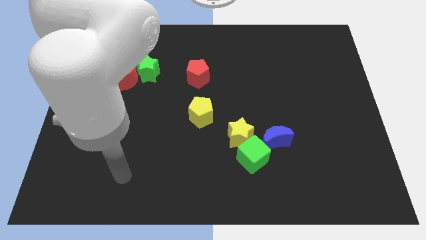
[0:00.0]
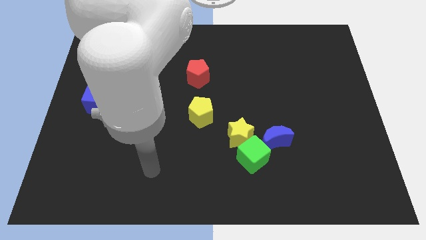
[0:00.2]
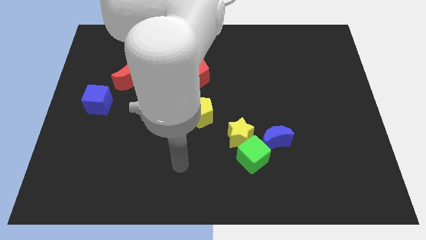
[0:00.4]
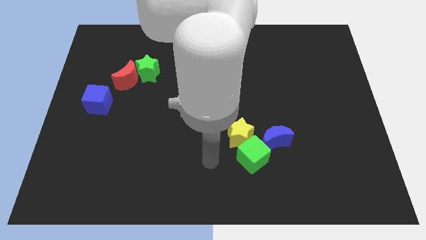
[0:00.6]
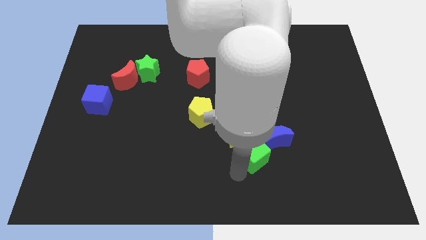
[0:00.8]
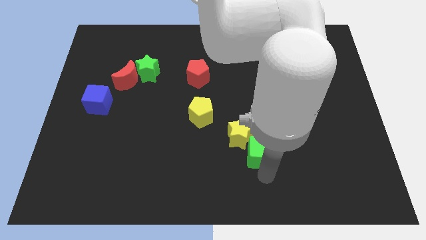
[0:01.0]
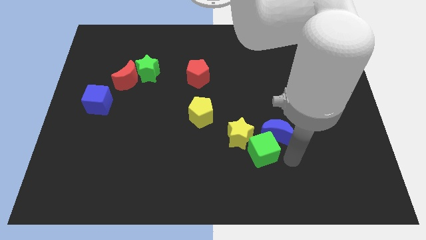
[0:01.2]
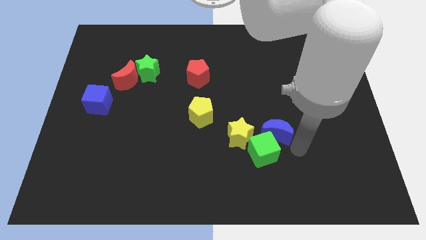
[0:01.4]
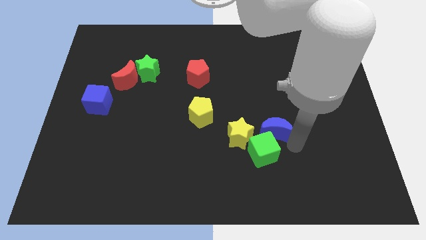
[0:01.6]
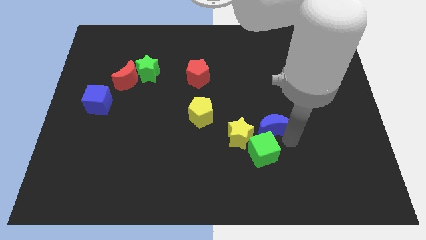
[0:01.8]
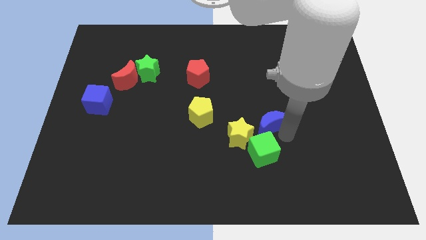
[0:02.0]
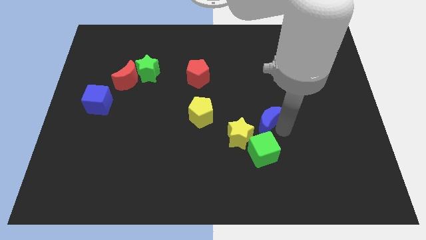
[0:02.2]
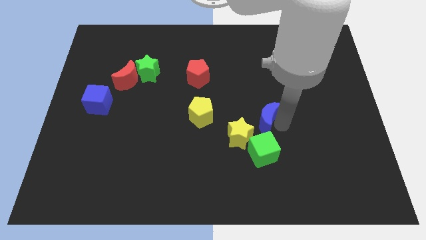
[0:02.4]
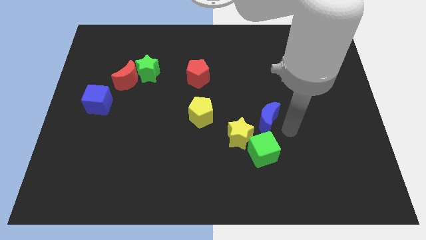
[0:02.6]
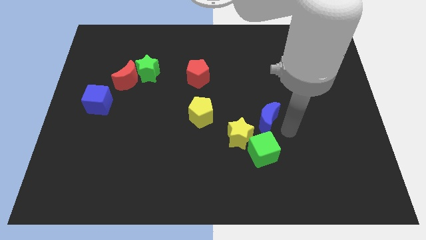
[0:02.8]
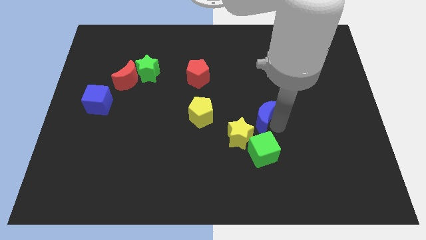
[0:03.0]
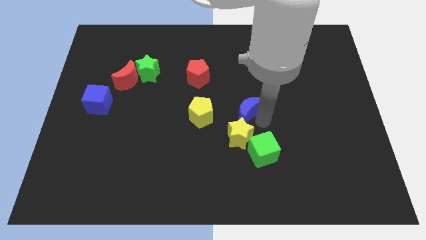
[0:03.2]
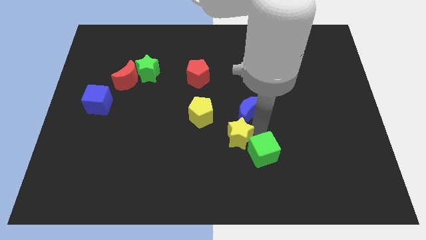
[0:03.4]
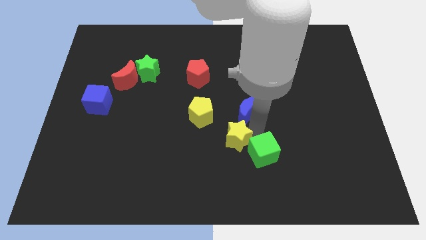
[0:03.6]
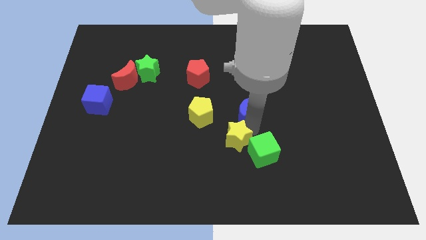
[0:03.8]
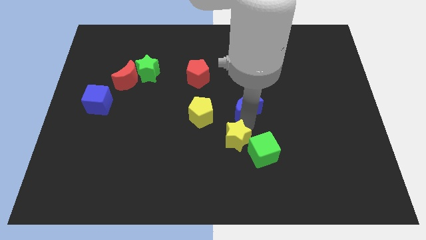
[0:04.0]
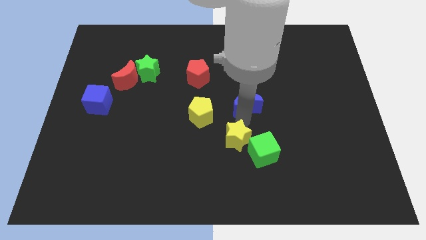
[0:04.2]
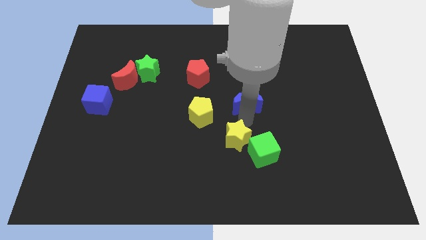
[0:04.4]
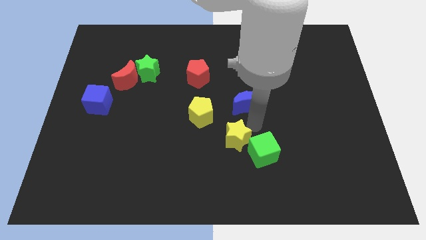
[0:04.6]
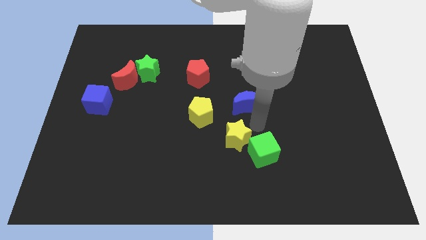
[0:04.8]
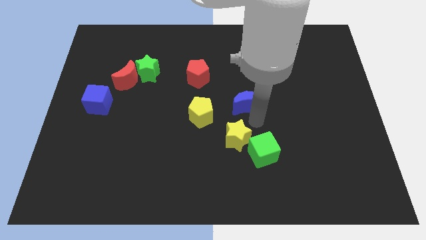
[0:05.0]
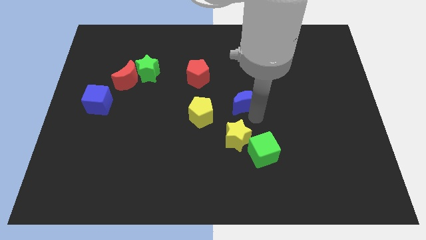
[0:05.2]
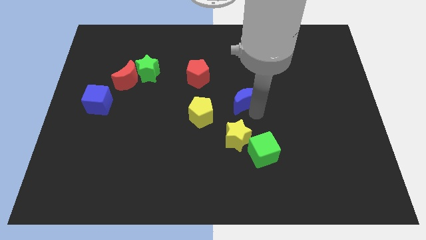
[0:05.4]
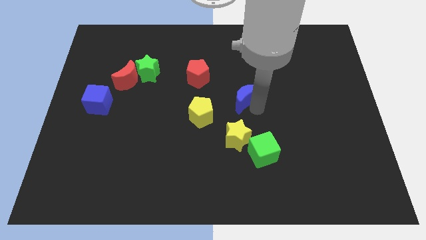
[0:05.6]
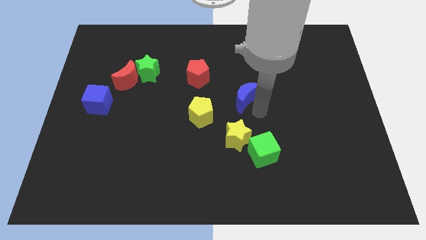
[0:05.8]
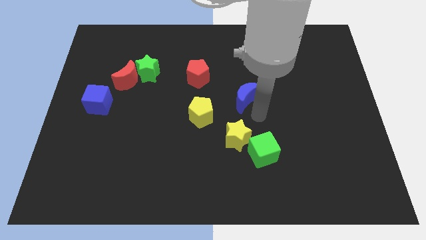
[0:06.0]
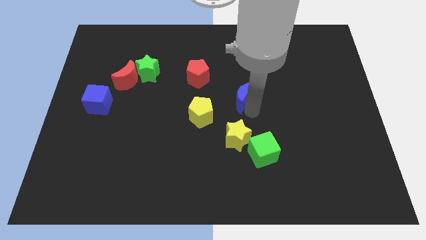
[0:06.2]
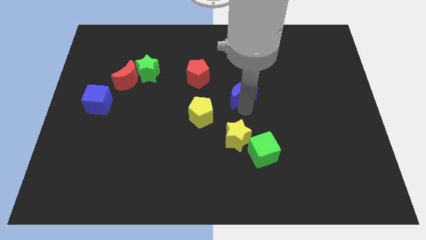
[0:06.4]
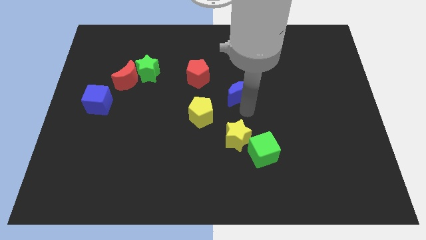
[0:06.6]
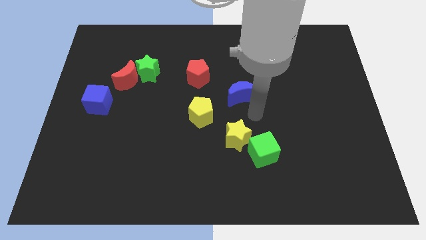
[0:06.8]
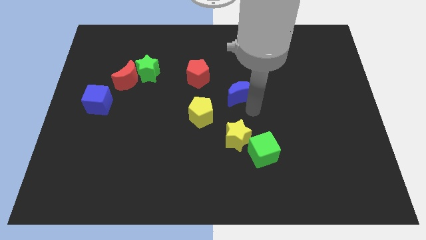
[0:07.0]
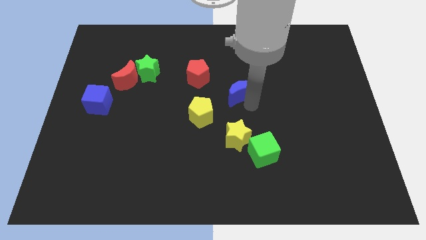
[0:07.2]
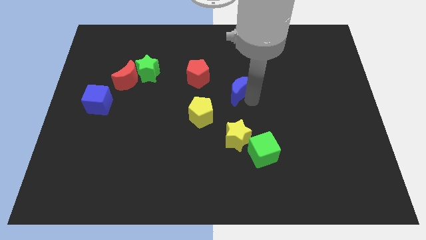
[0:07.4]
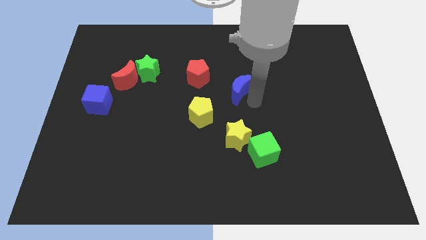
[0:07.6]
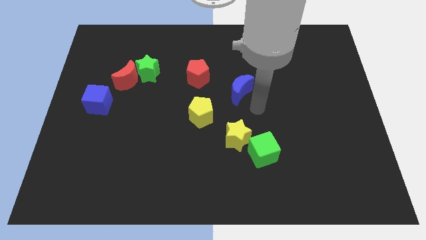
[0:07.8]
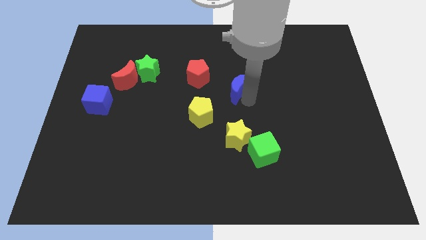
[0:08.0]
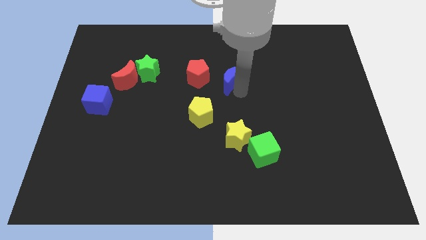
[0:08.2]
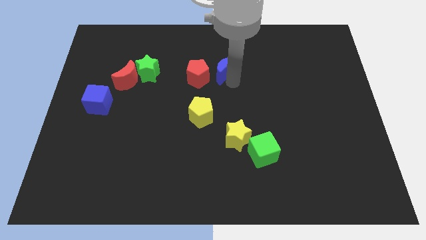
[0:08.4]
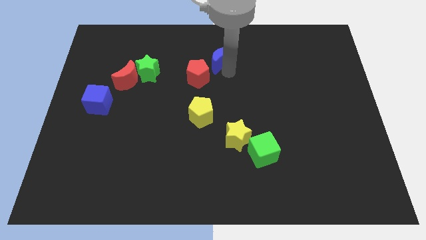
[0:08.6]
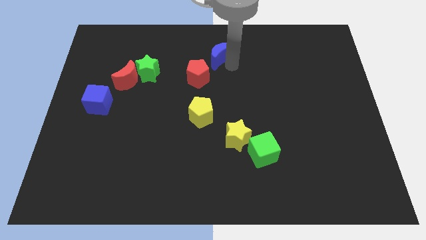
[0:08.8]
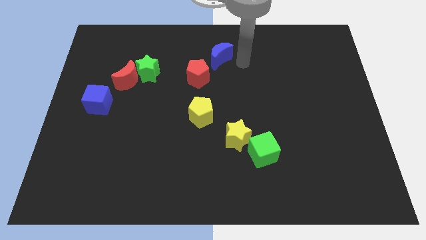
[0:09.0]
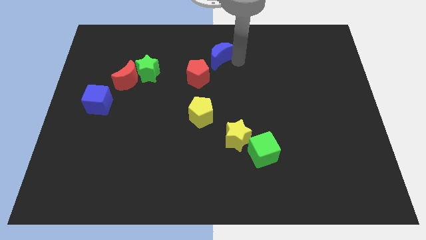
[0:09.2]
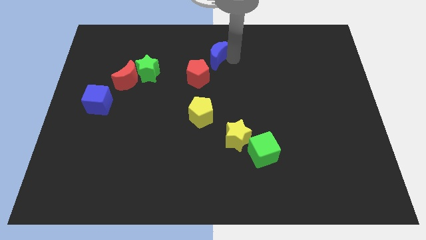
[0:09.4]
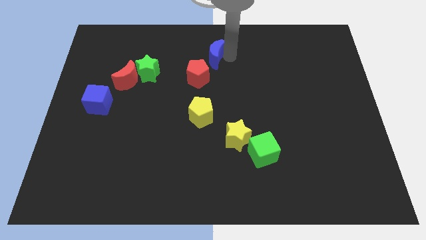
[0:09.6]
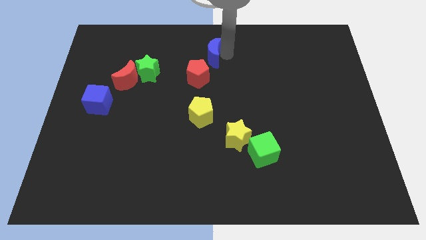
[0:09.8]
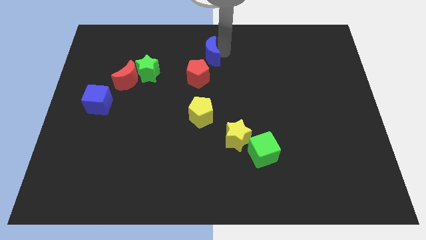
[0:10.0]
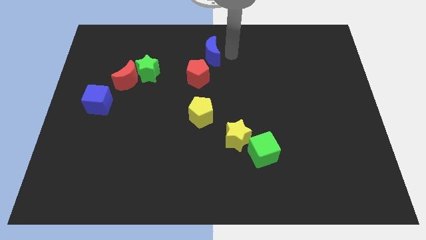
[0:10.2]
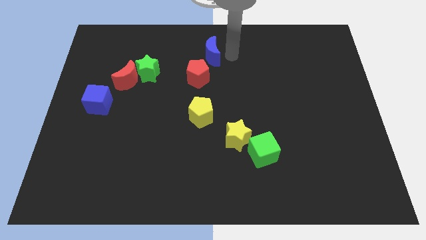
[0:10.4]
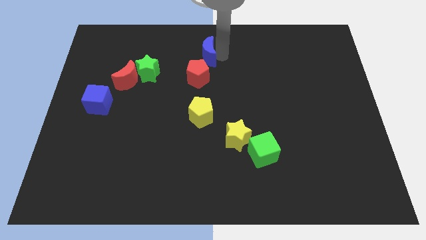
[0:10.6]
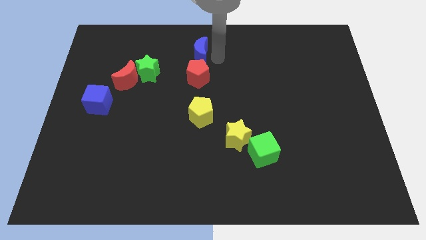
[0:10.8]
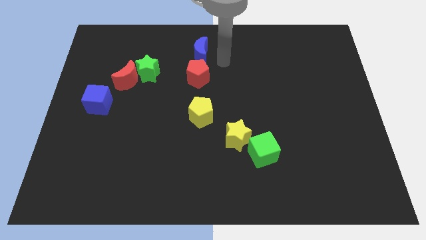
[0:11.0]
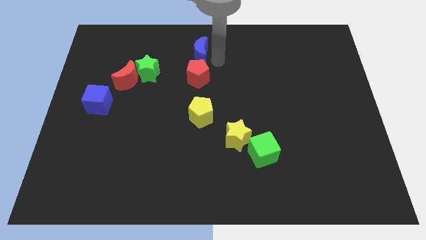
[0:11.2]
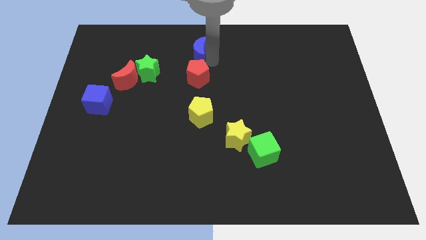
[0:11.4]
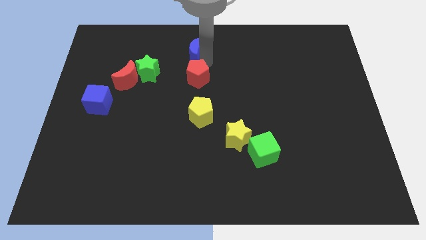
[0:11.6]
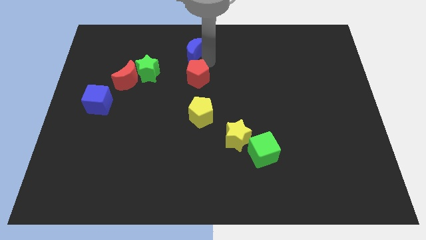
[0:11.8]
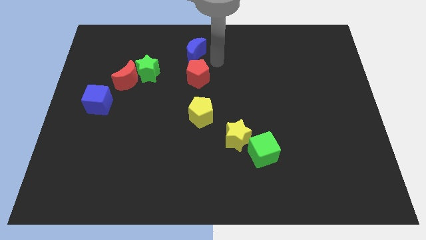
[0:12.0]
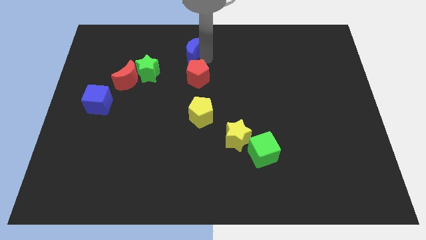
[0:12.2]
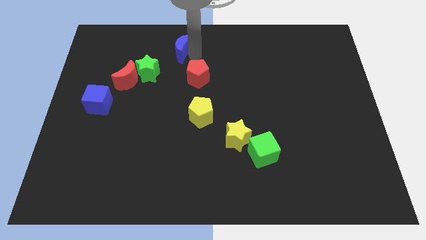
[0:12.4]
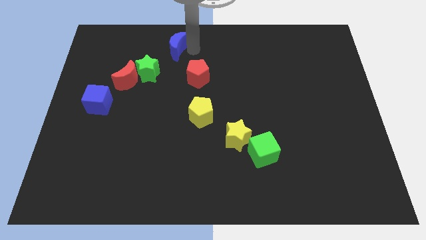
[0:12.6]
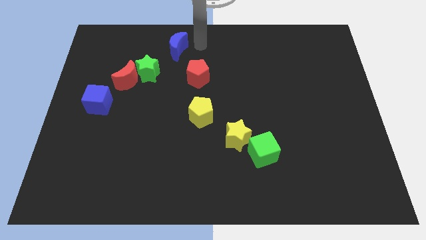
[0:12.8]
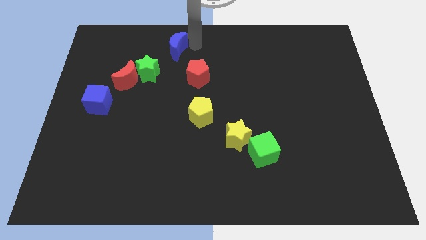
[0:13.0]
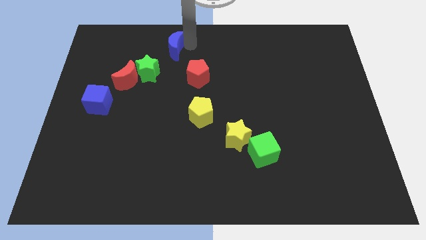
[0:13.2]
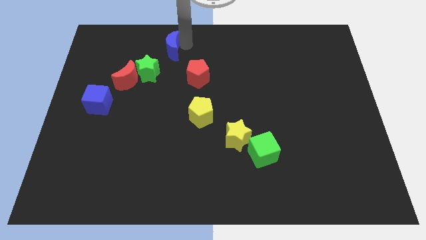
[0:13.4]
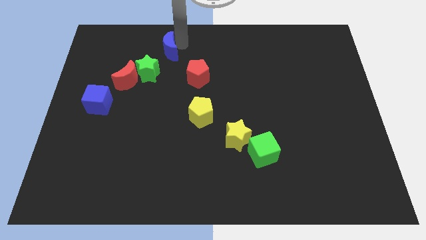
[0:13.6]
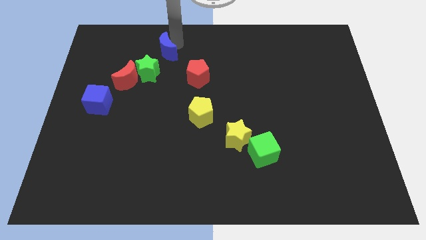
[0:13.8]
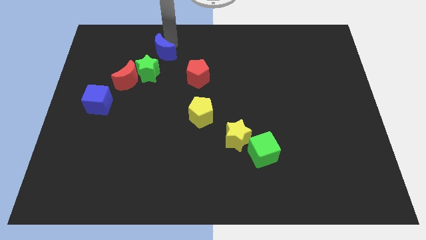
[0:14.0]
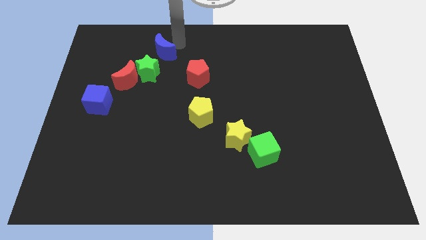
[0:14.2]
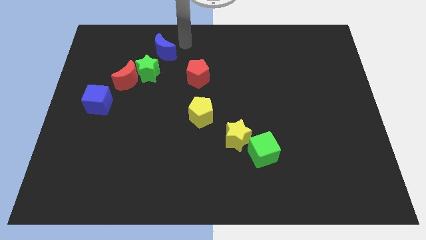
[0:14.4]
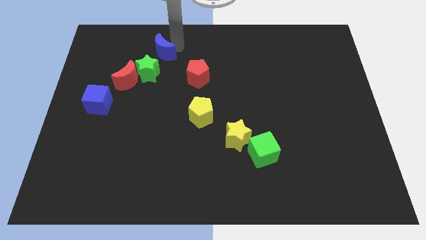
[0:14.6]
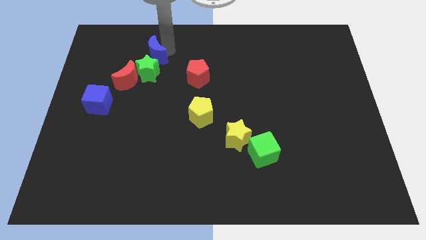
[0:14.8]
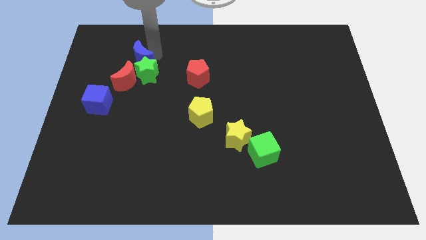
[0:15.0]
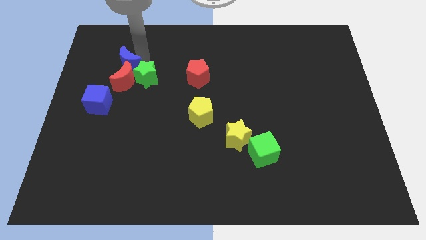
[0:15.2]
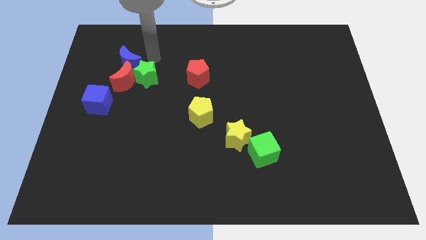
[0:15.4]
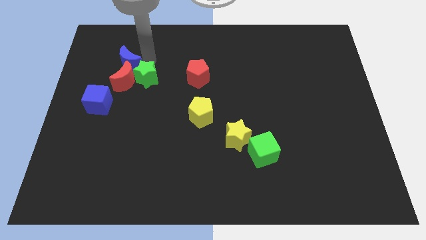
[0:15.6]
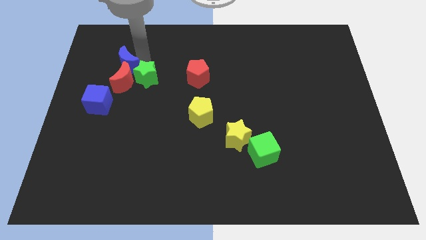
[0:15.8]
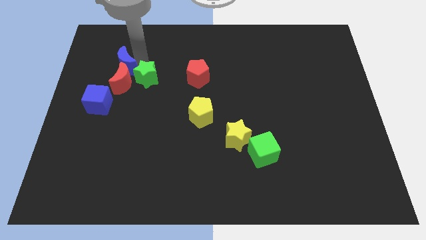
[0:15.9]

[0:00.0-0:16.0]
push the blue moon to the top of the blue cube
